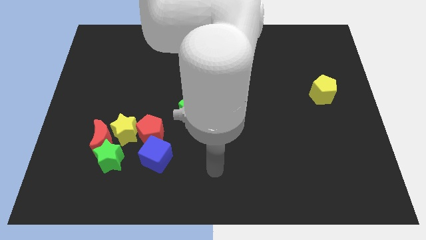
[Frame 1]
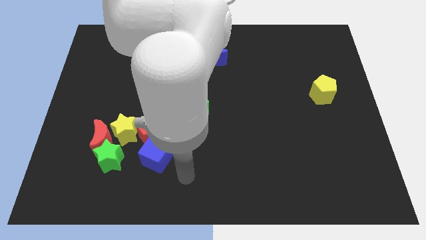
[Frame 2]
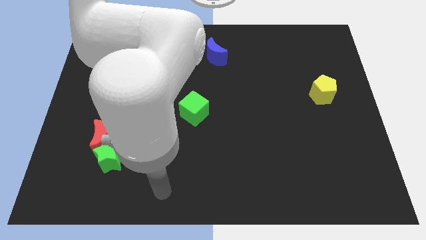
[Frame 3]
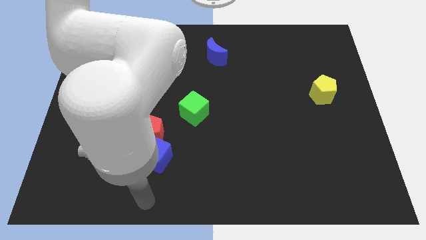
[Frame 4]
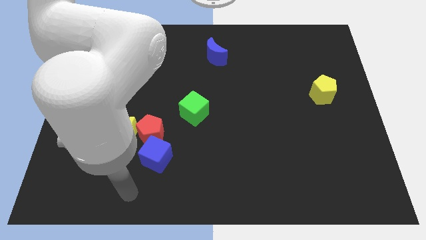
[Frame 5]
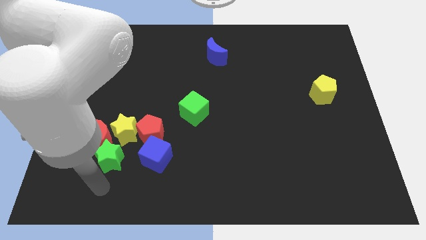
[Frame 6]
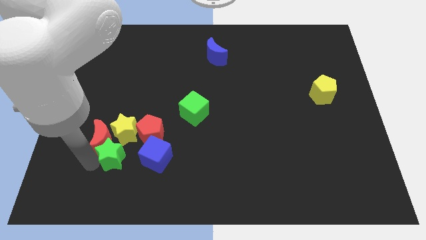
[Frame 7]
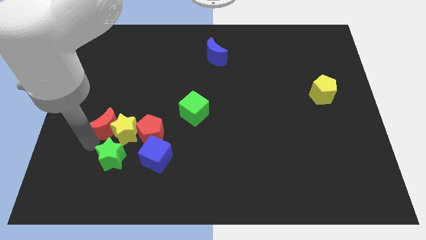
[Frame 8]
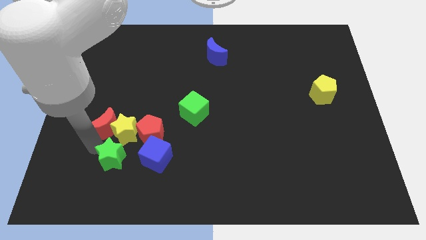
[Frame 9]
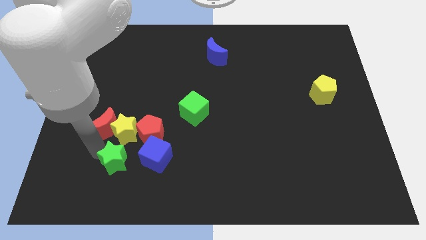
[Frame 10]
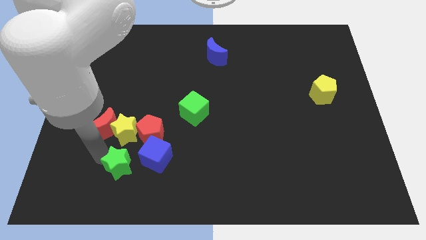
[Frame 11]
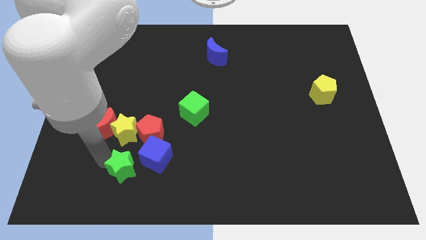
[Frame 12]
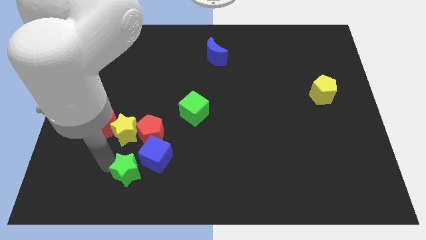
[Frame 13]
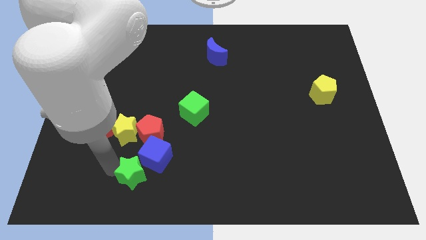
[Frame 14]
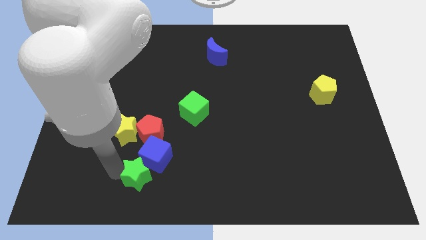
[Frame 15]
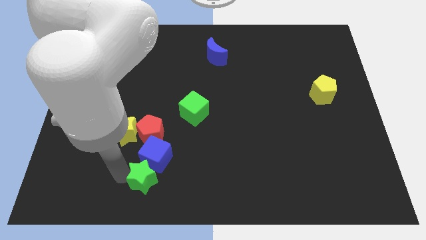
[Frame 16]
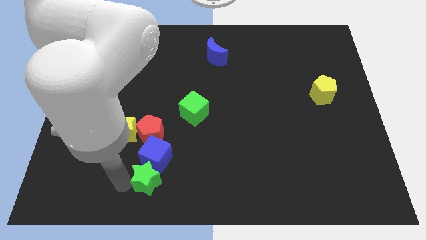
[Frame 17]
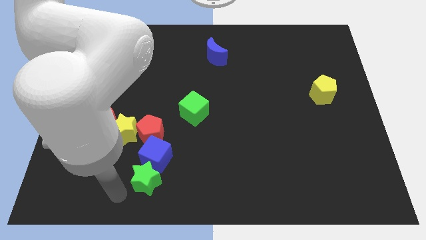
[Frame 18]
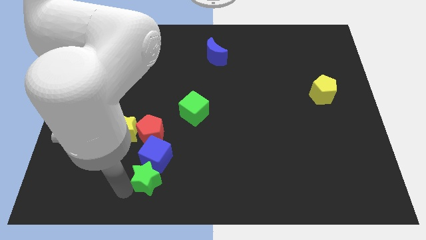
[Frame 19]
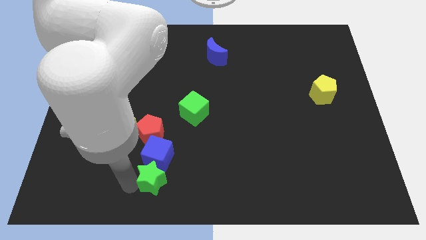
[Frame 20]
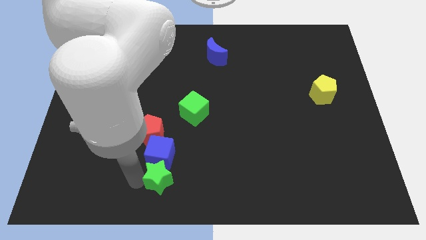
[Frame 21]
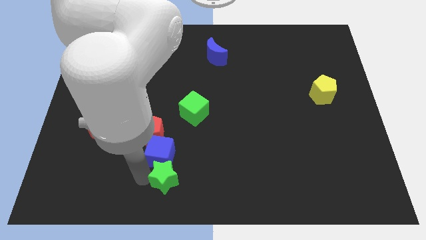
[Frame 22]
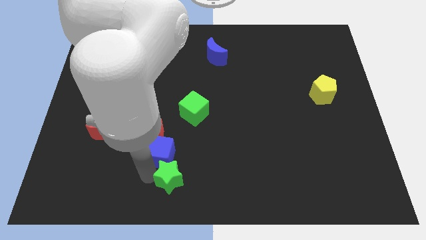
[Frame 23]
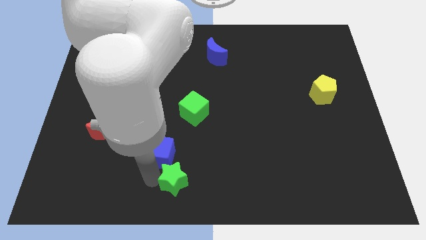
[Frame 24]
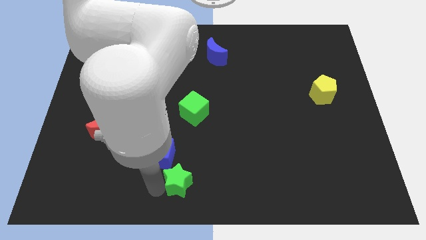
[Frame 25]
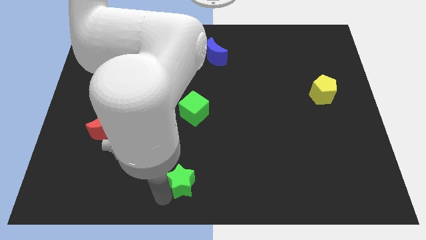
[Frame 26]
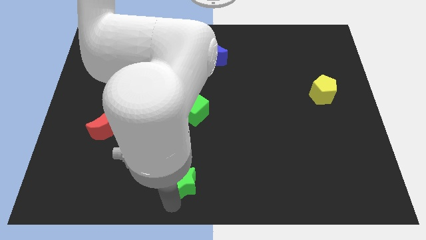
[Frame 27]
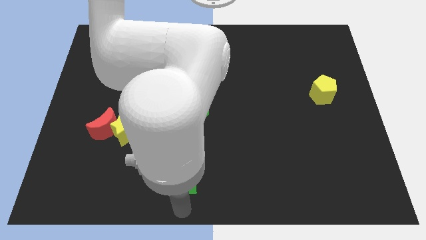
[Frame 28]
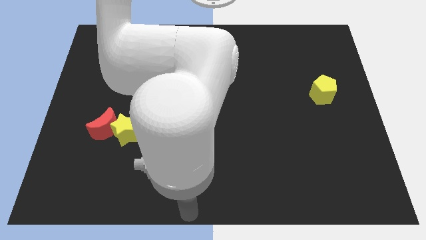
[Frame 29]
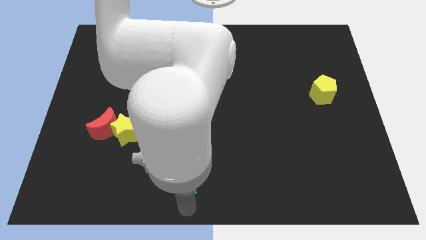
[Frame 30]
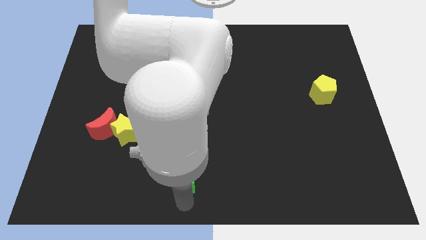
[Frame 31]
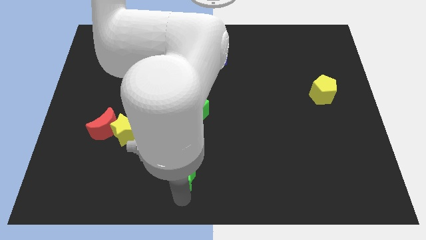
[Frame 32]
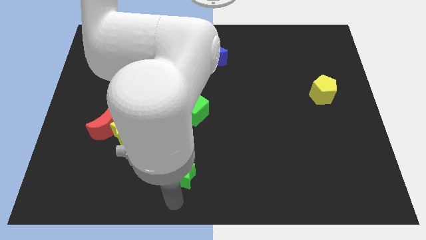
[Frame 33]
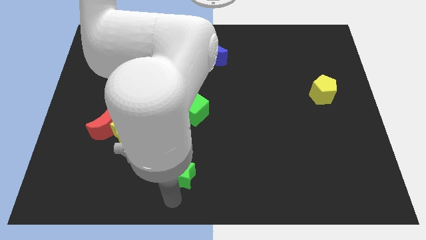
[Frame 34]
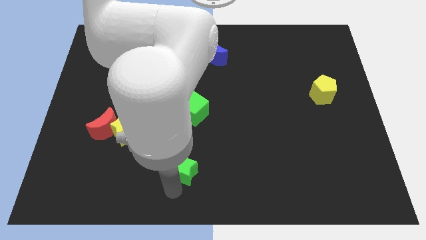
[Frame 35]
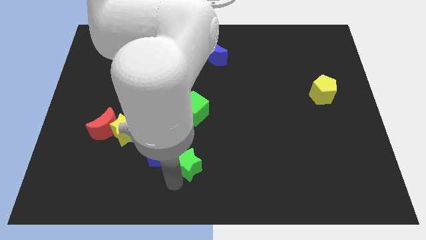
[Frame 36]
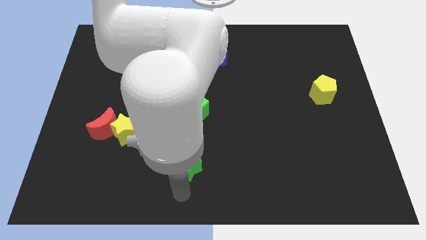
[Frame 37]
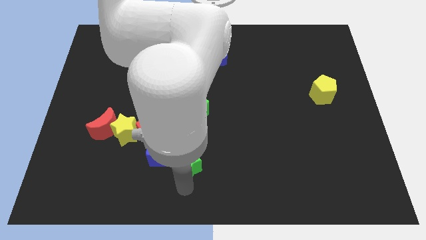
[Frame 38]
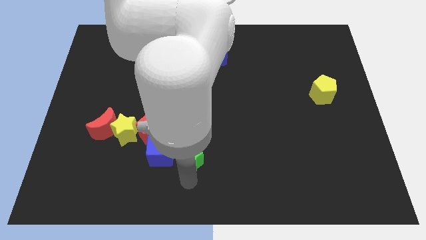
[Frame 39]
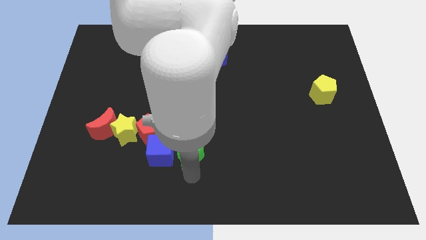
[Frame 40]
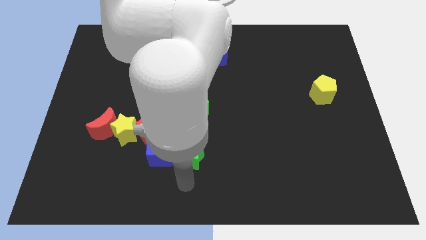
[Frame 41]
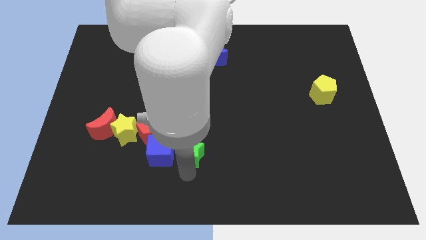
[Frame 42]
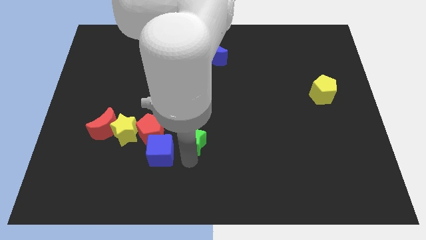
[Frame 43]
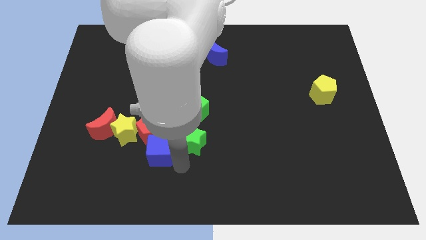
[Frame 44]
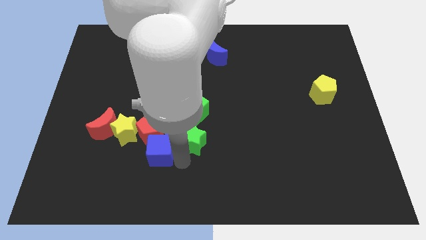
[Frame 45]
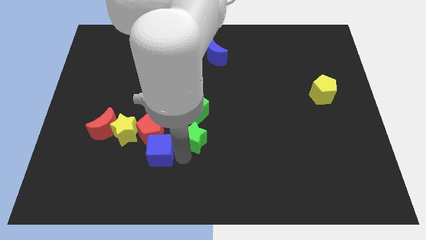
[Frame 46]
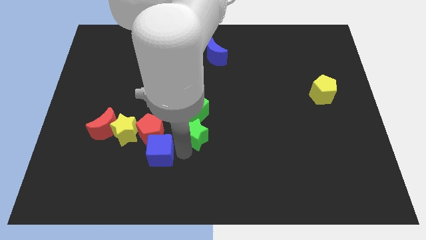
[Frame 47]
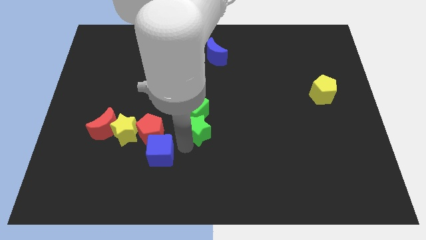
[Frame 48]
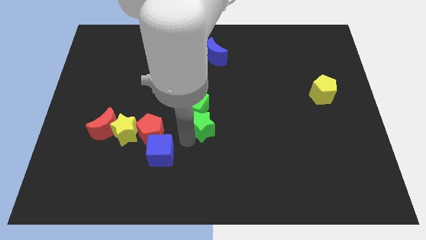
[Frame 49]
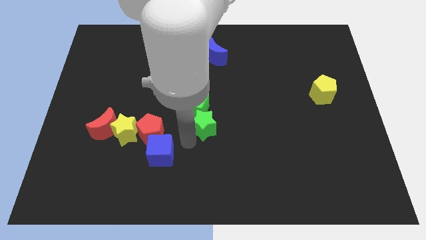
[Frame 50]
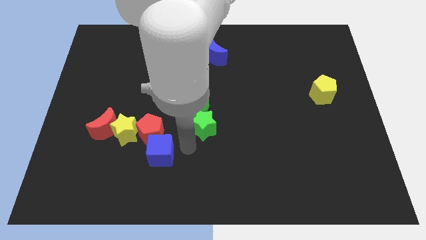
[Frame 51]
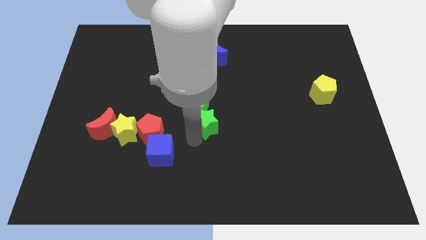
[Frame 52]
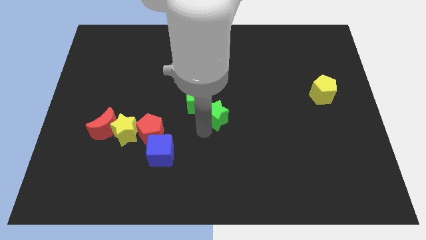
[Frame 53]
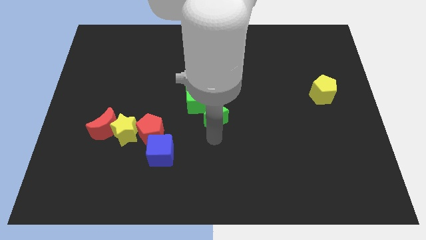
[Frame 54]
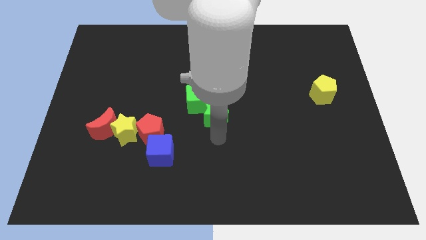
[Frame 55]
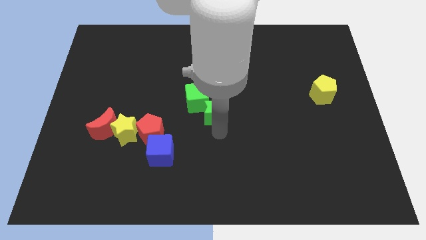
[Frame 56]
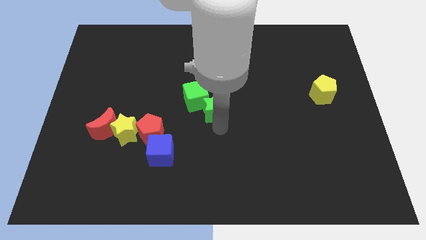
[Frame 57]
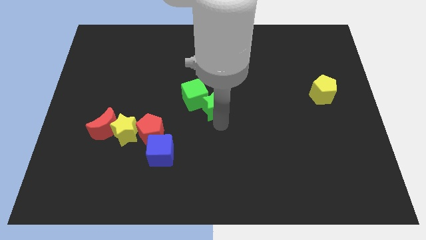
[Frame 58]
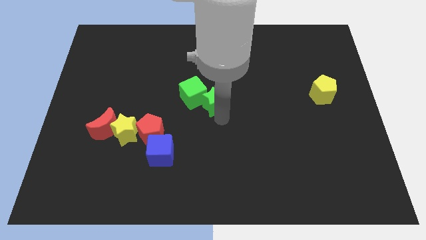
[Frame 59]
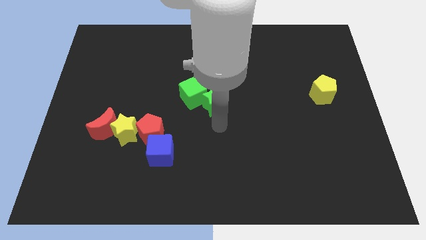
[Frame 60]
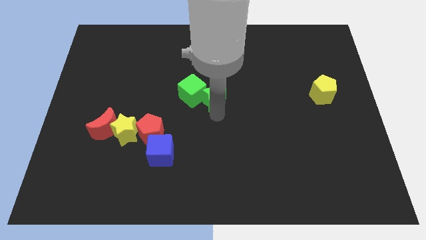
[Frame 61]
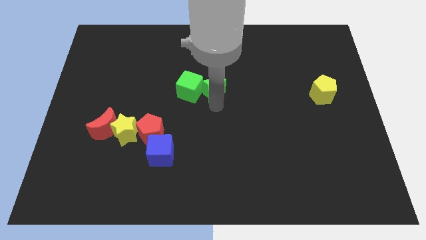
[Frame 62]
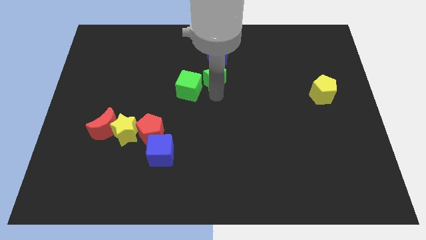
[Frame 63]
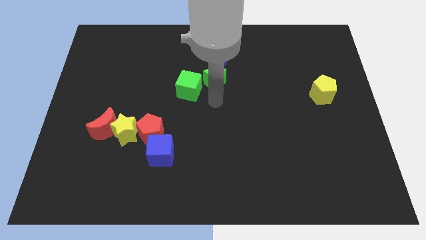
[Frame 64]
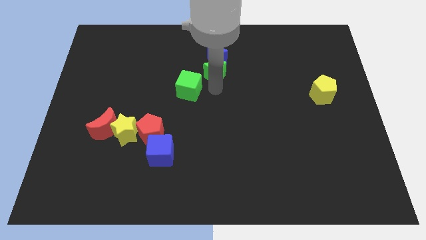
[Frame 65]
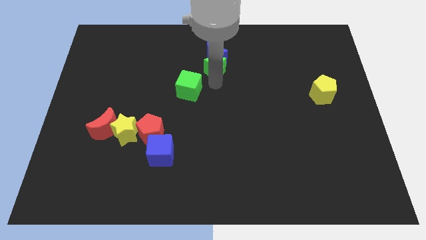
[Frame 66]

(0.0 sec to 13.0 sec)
slide the green star towards the blue moon
